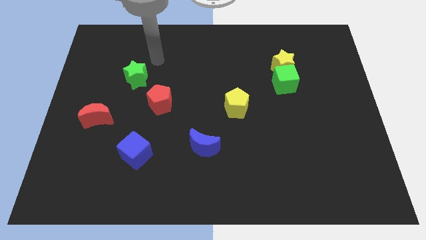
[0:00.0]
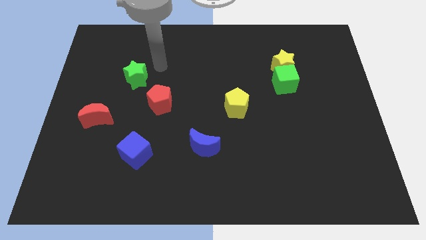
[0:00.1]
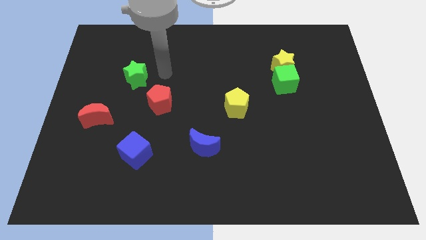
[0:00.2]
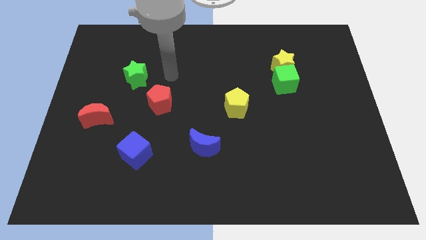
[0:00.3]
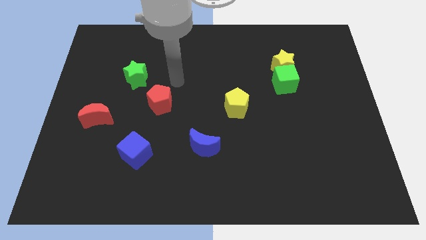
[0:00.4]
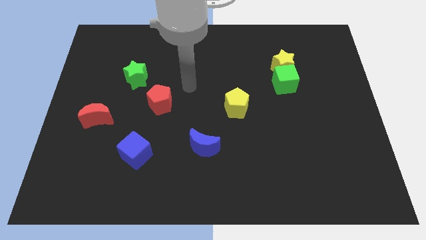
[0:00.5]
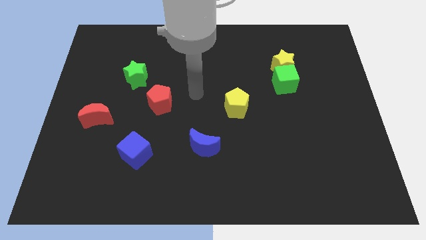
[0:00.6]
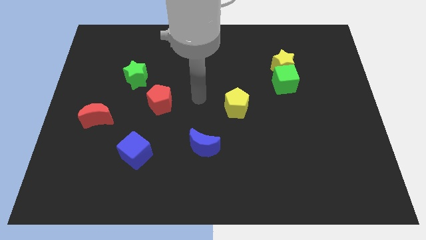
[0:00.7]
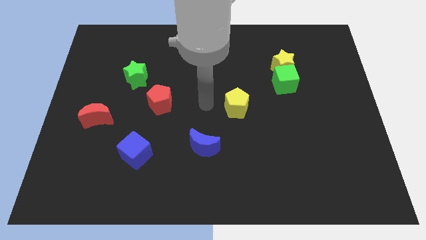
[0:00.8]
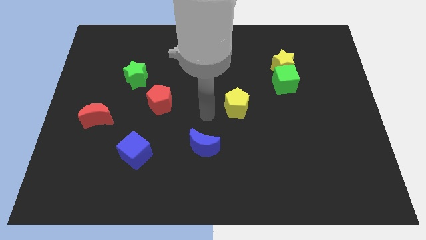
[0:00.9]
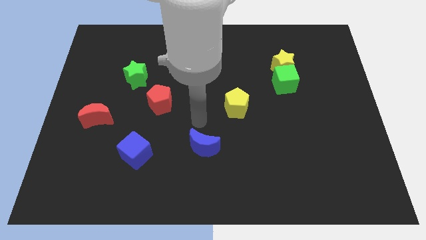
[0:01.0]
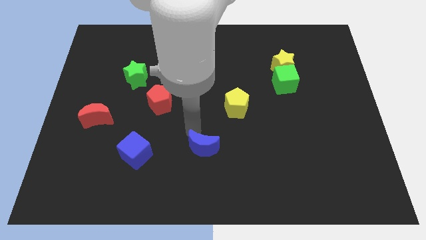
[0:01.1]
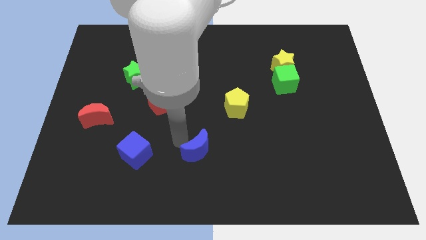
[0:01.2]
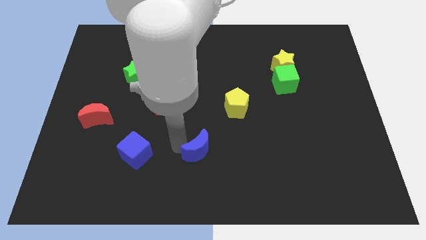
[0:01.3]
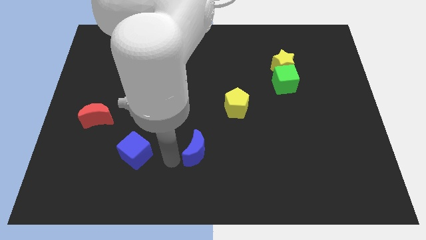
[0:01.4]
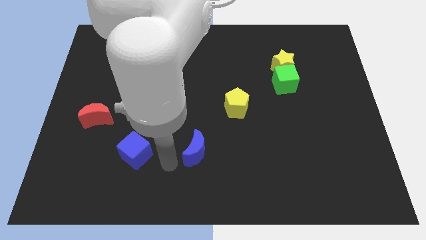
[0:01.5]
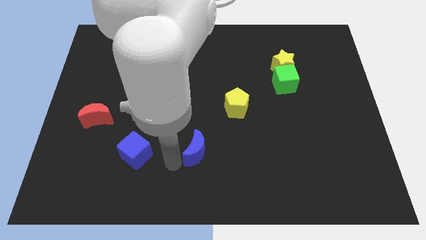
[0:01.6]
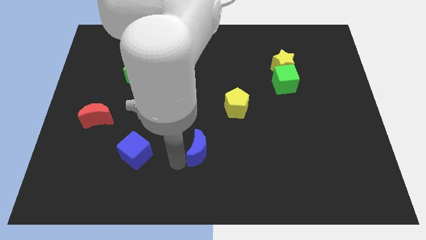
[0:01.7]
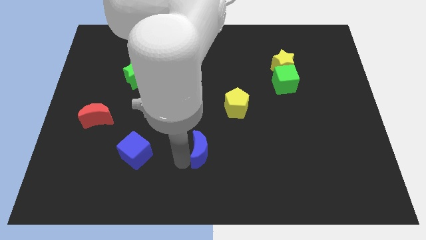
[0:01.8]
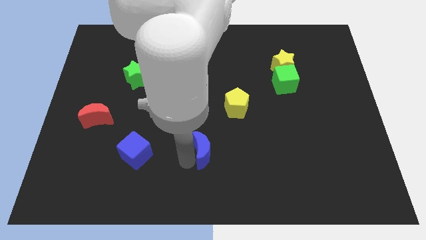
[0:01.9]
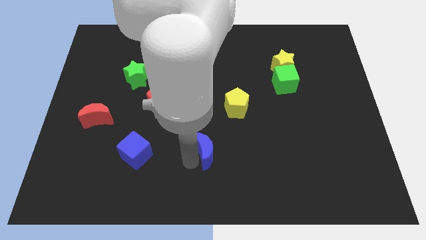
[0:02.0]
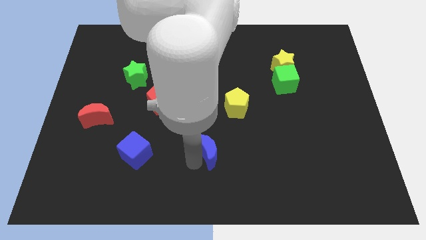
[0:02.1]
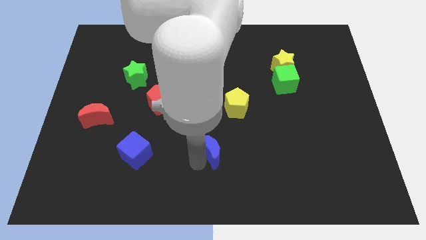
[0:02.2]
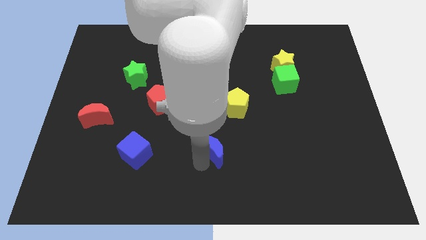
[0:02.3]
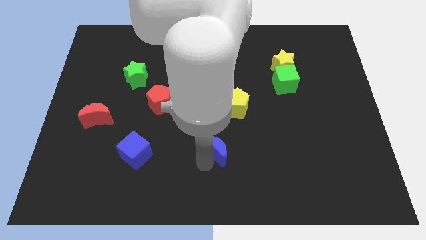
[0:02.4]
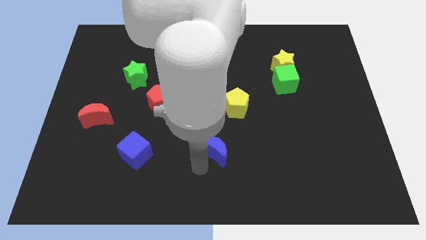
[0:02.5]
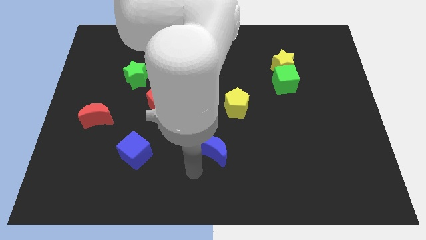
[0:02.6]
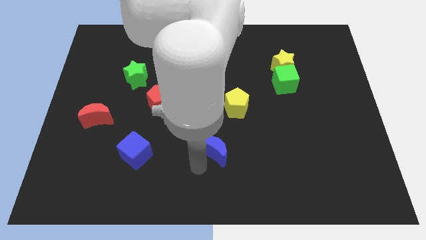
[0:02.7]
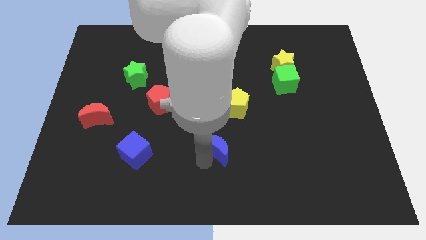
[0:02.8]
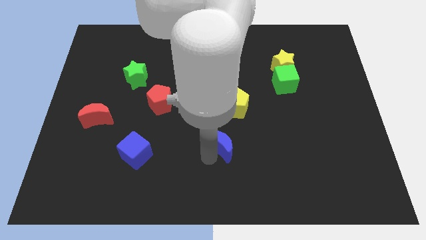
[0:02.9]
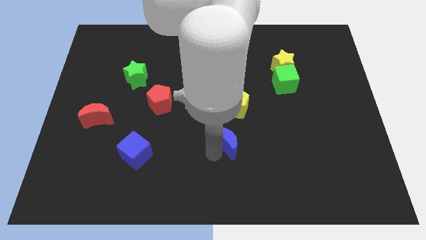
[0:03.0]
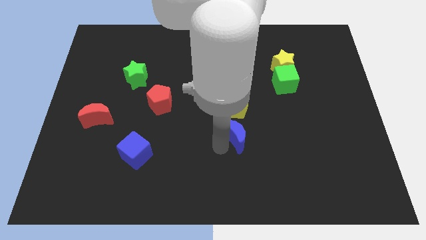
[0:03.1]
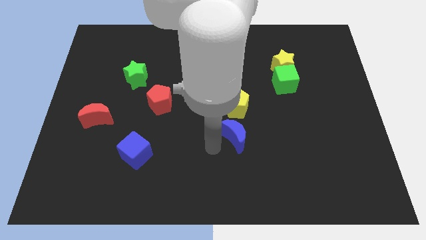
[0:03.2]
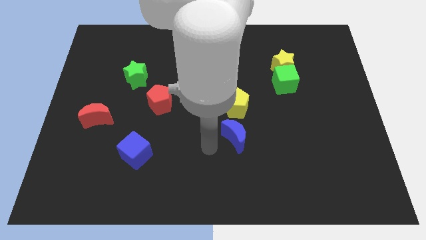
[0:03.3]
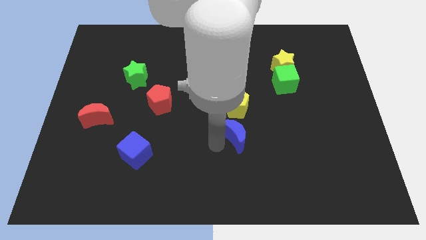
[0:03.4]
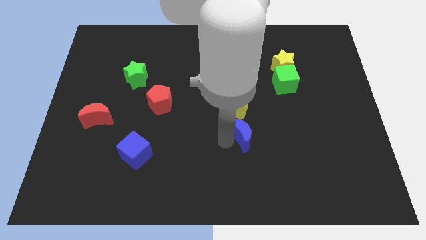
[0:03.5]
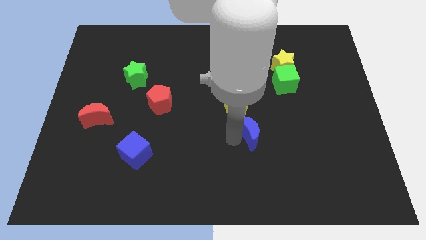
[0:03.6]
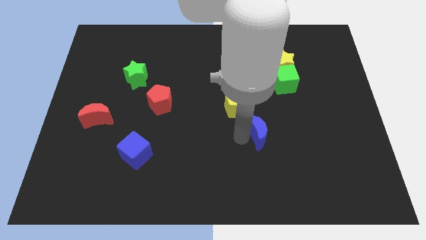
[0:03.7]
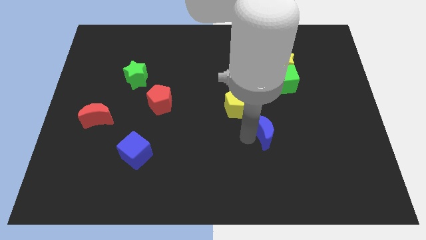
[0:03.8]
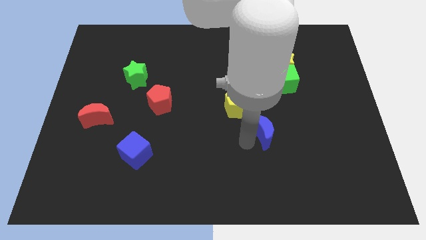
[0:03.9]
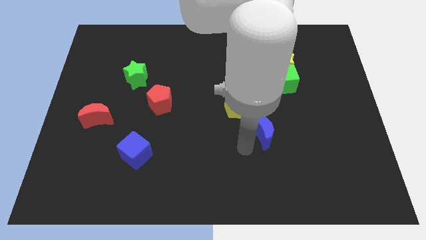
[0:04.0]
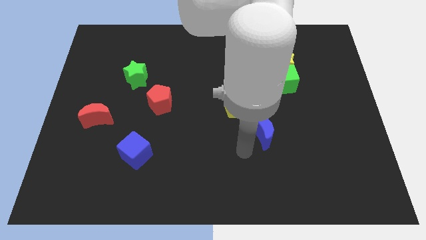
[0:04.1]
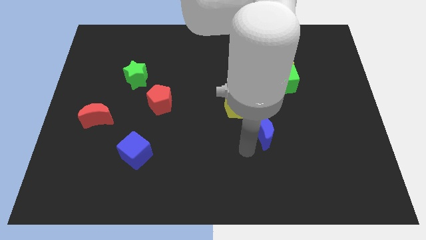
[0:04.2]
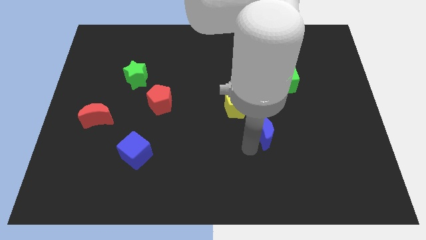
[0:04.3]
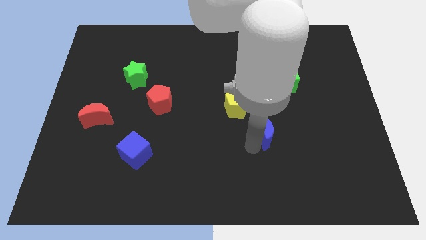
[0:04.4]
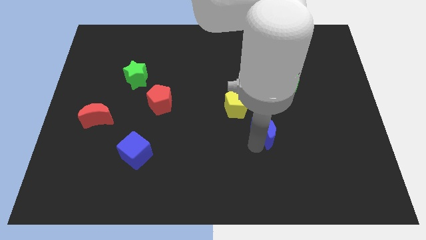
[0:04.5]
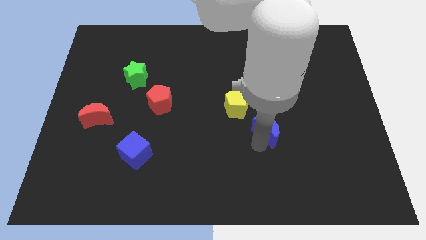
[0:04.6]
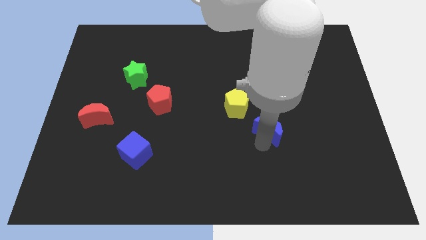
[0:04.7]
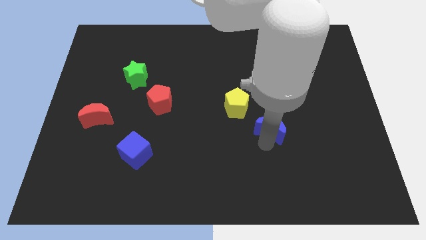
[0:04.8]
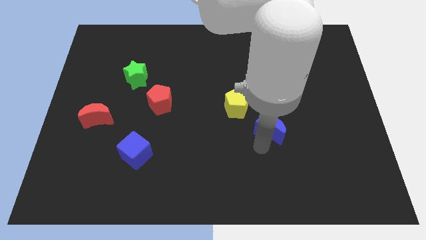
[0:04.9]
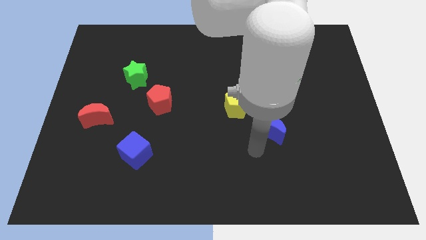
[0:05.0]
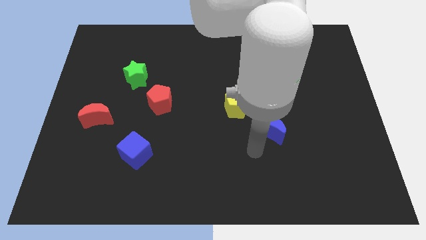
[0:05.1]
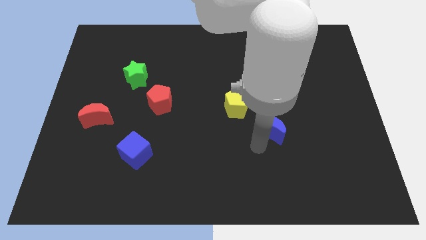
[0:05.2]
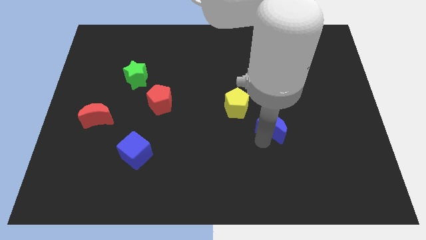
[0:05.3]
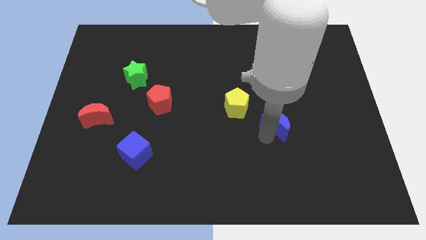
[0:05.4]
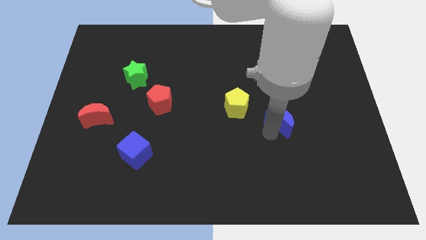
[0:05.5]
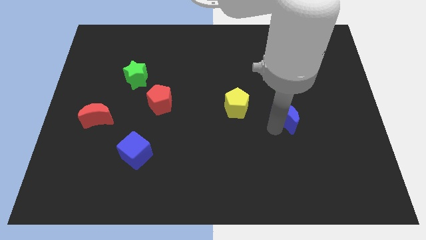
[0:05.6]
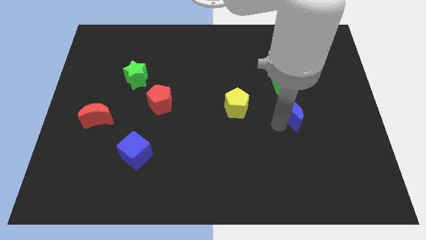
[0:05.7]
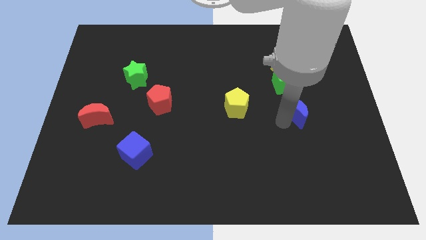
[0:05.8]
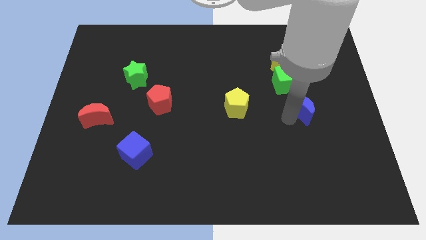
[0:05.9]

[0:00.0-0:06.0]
slide the blue moon diagonally down and to the right of the green cube

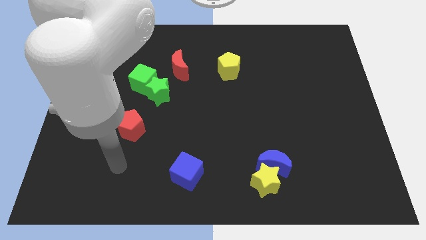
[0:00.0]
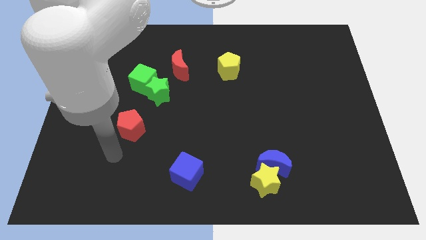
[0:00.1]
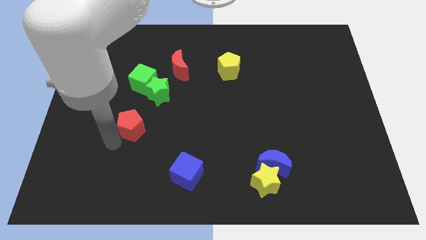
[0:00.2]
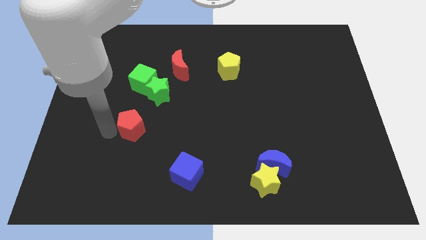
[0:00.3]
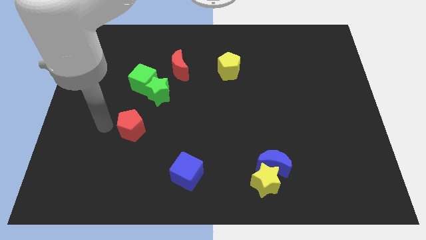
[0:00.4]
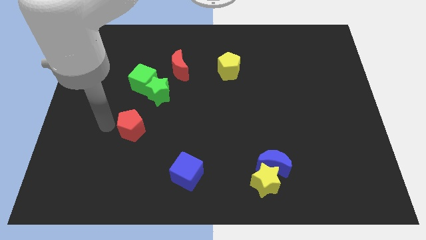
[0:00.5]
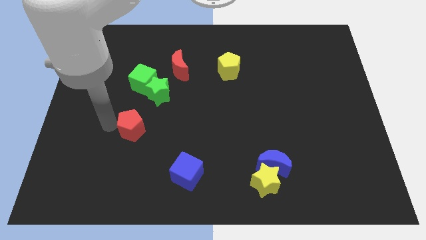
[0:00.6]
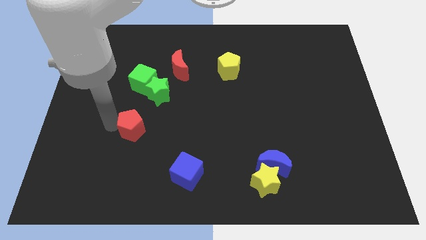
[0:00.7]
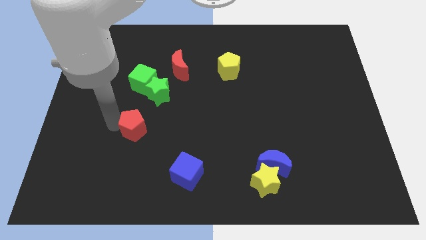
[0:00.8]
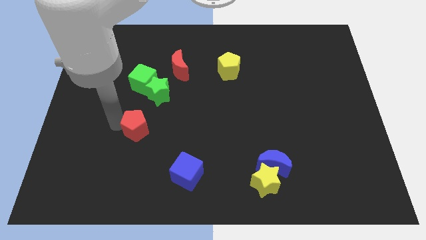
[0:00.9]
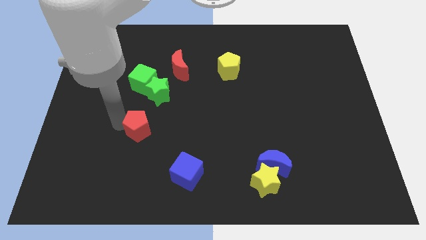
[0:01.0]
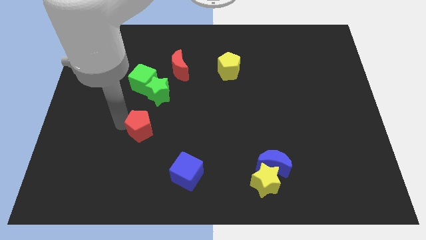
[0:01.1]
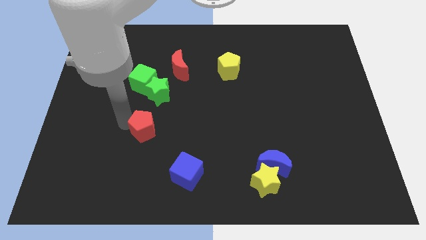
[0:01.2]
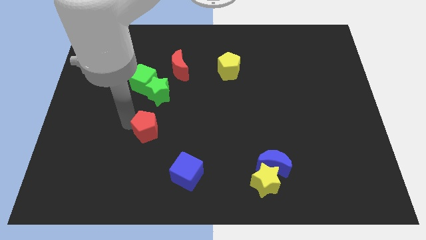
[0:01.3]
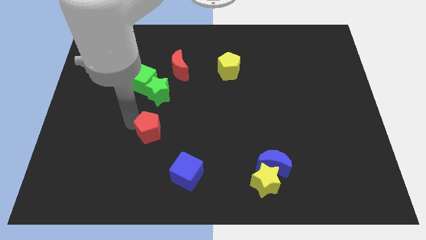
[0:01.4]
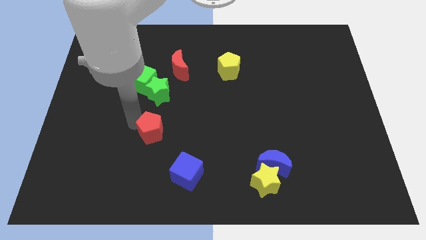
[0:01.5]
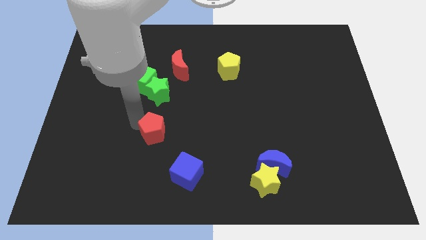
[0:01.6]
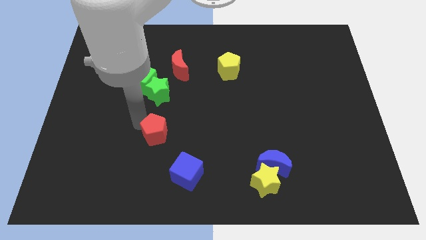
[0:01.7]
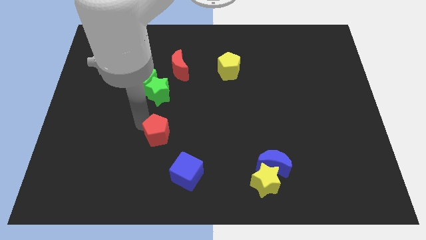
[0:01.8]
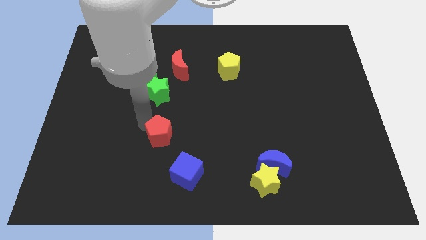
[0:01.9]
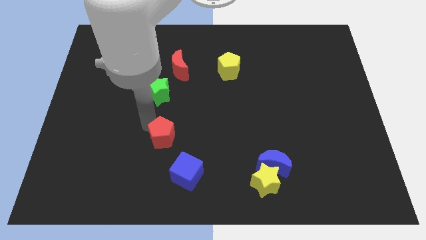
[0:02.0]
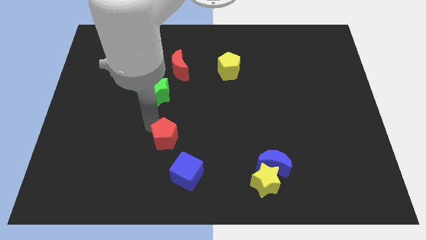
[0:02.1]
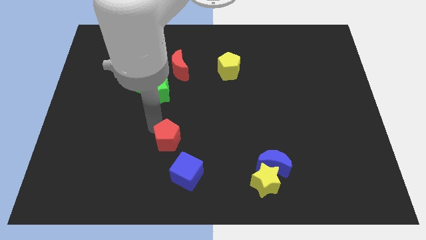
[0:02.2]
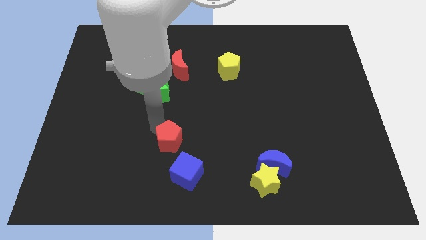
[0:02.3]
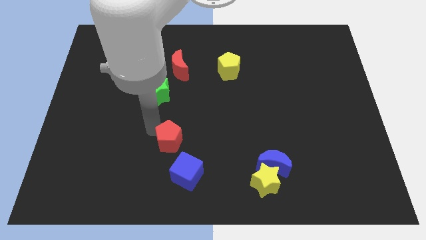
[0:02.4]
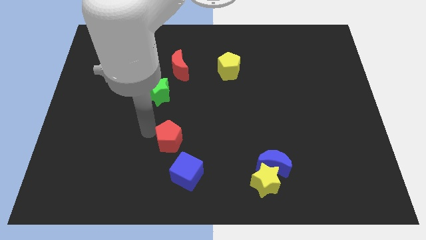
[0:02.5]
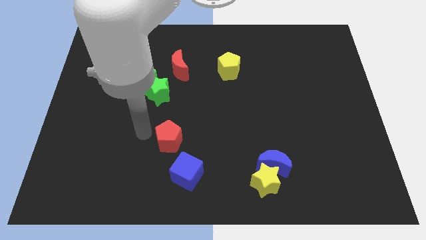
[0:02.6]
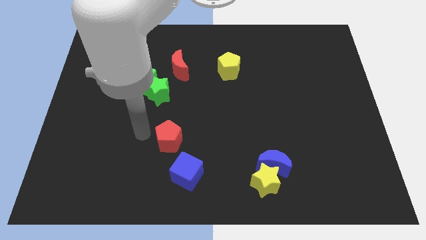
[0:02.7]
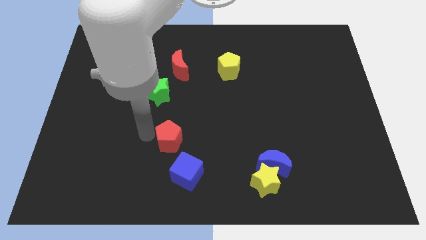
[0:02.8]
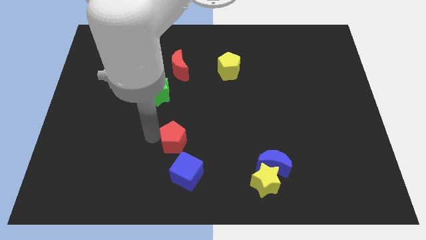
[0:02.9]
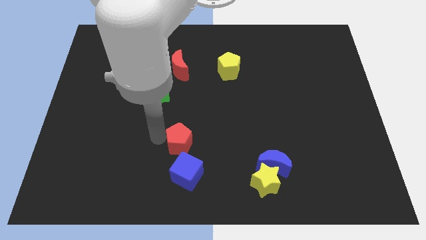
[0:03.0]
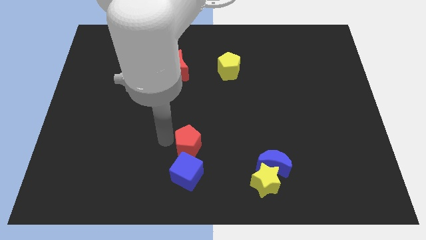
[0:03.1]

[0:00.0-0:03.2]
put the red pentagon to the top right side of the blue cube
